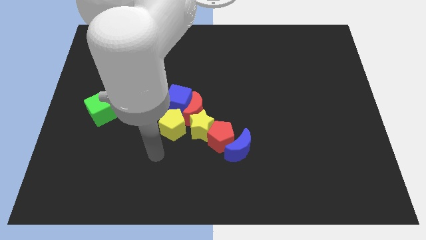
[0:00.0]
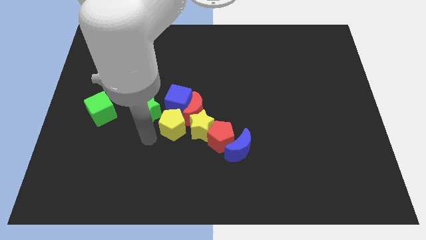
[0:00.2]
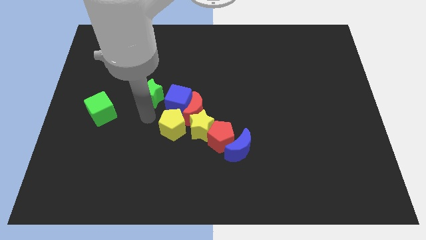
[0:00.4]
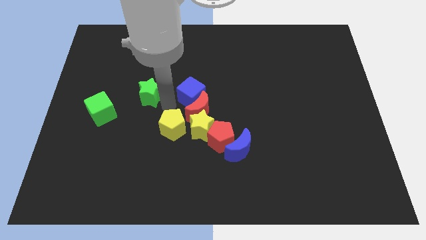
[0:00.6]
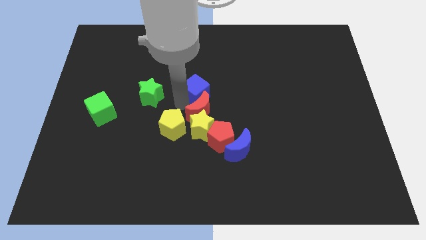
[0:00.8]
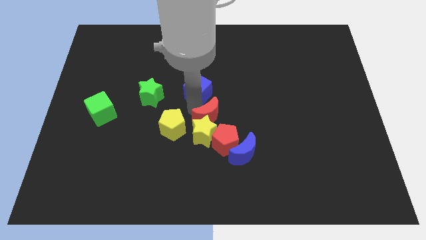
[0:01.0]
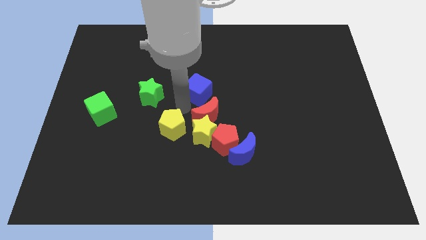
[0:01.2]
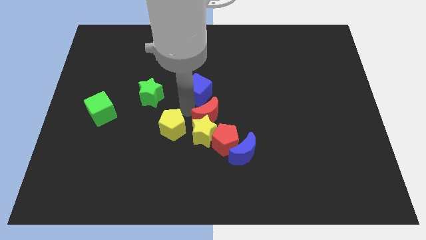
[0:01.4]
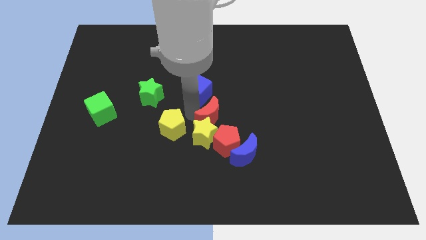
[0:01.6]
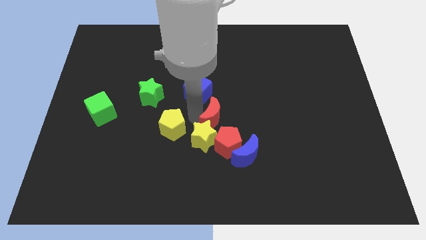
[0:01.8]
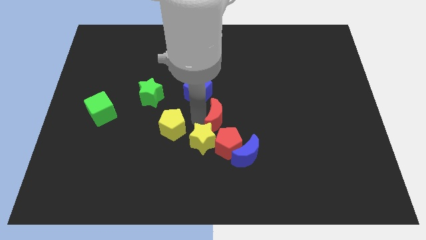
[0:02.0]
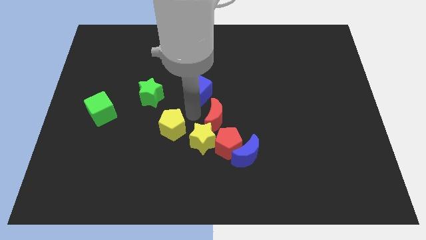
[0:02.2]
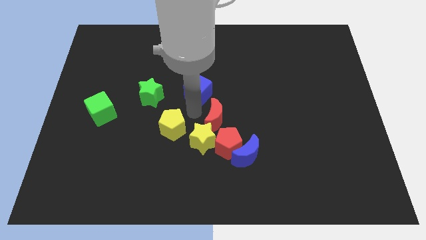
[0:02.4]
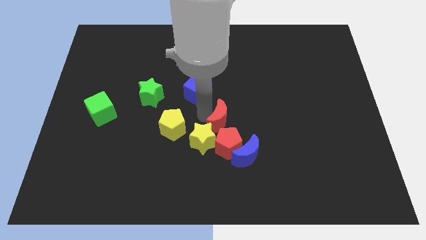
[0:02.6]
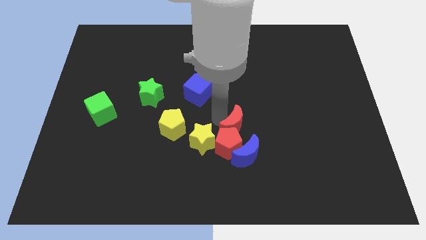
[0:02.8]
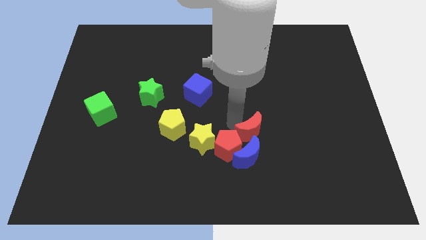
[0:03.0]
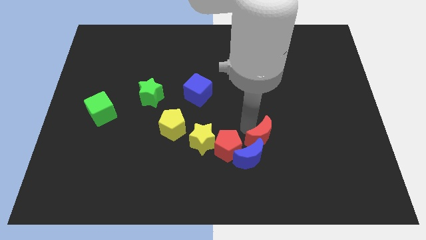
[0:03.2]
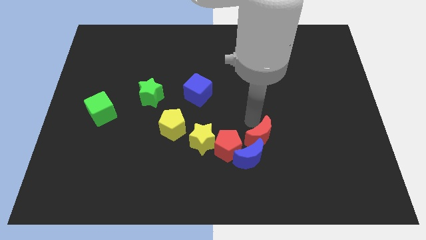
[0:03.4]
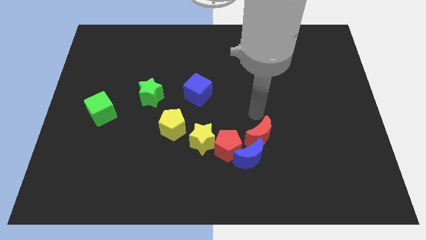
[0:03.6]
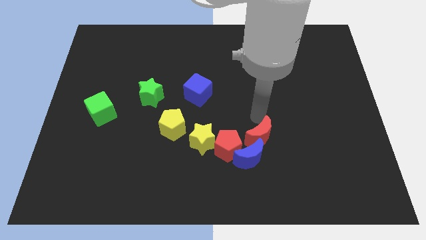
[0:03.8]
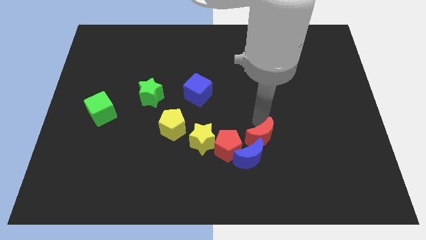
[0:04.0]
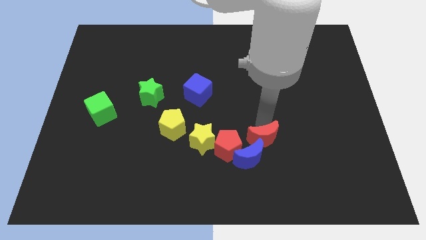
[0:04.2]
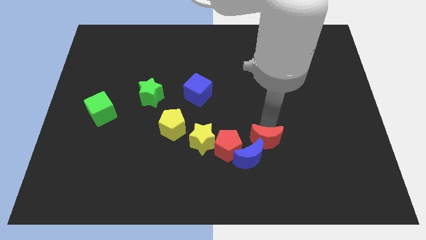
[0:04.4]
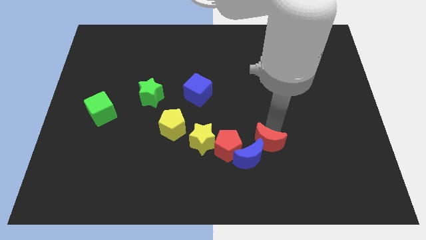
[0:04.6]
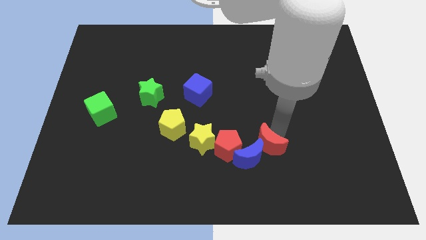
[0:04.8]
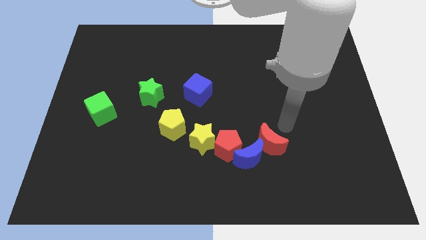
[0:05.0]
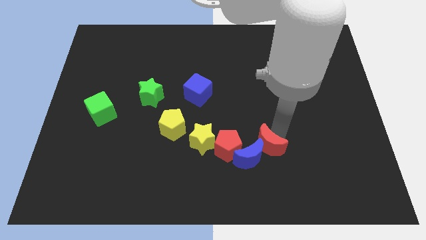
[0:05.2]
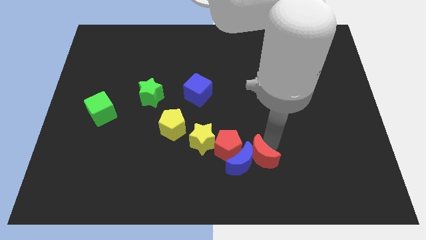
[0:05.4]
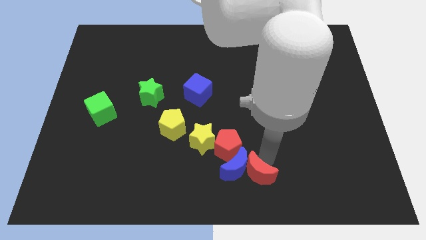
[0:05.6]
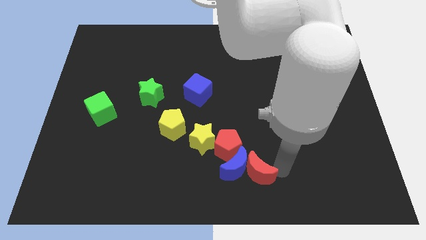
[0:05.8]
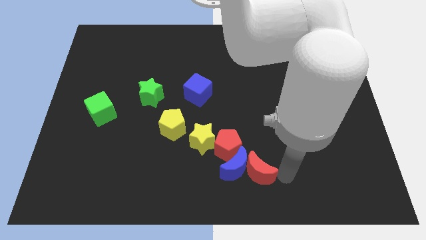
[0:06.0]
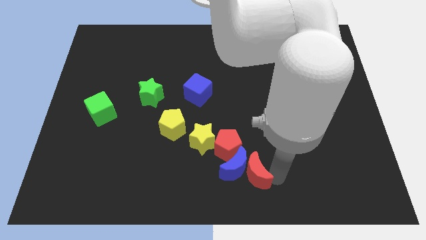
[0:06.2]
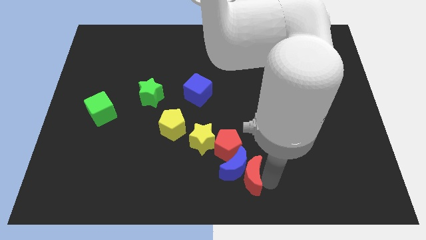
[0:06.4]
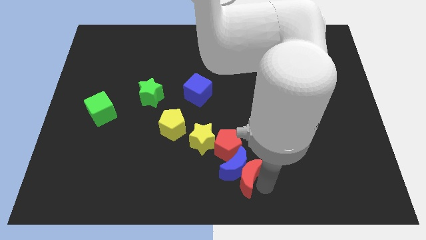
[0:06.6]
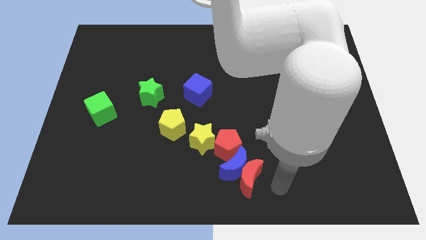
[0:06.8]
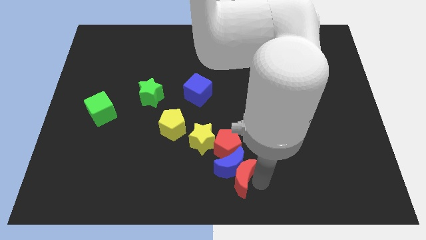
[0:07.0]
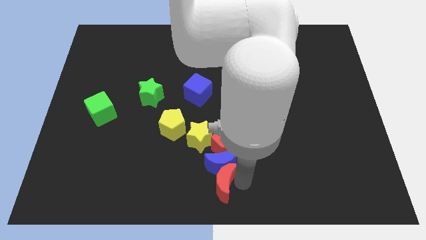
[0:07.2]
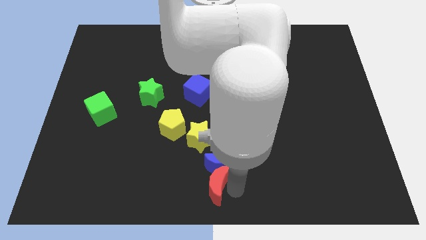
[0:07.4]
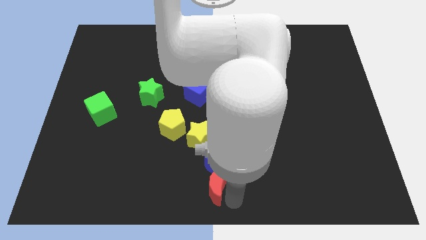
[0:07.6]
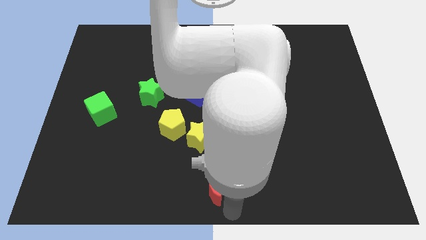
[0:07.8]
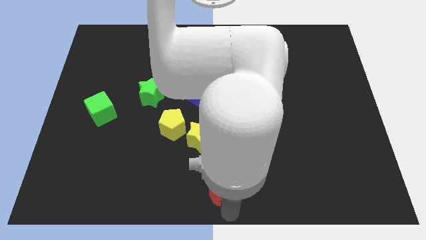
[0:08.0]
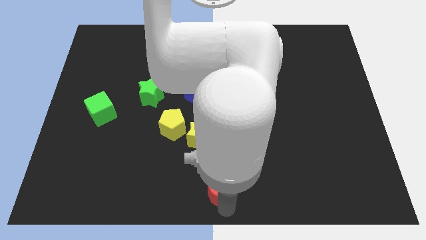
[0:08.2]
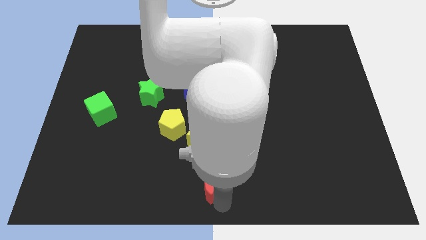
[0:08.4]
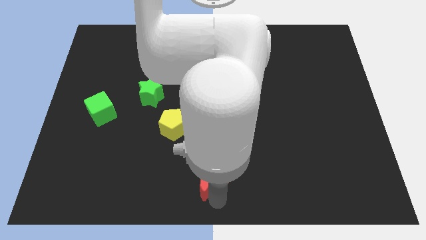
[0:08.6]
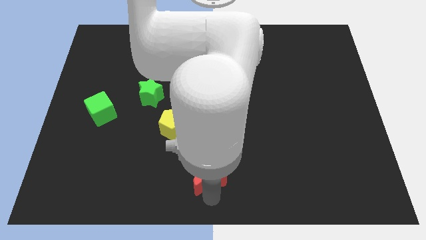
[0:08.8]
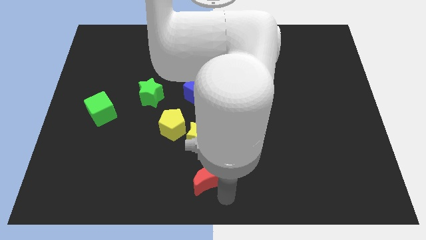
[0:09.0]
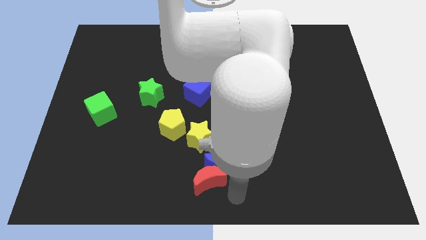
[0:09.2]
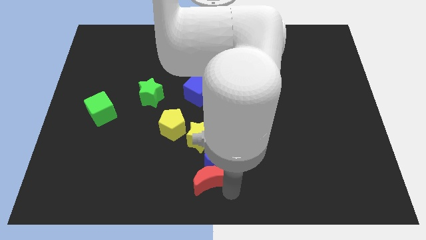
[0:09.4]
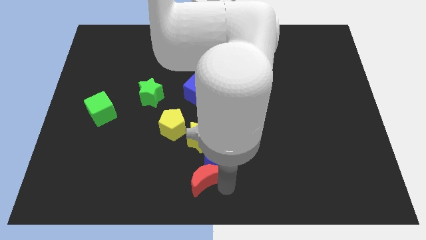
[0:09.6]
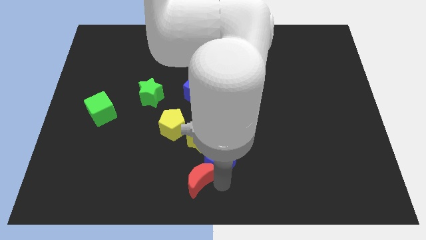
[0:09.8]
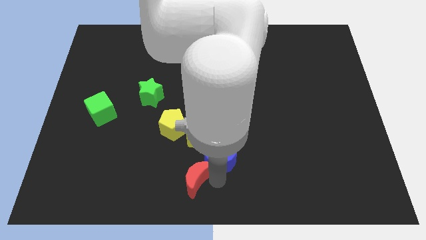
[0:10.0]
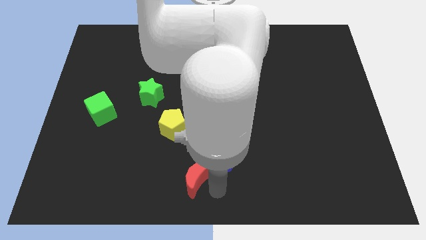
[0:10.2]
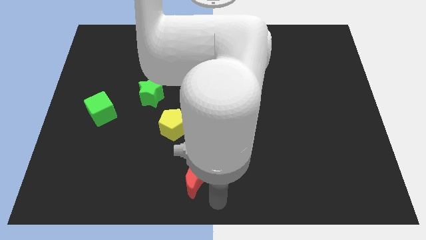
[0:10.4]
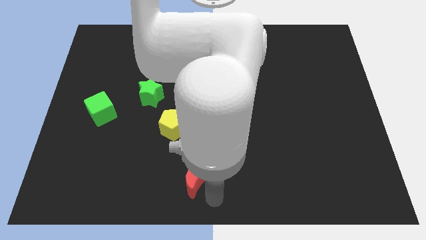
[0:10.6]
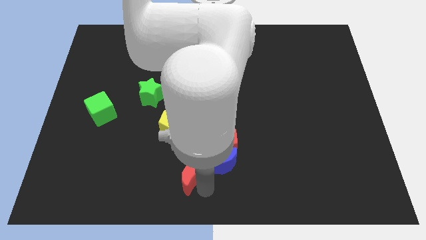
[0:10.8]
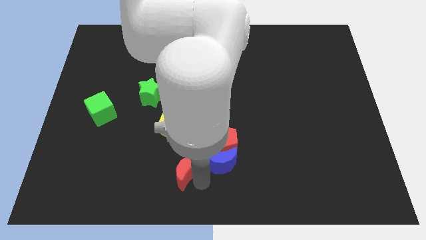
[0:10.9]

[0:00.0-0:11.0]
slide the red moon a bit downwards and then left

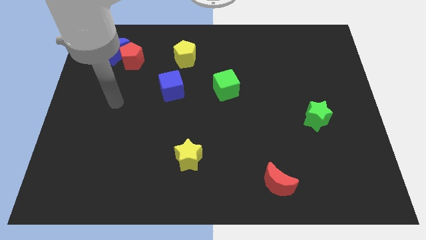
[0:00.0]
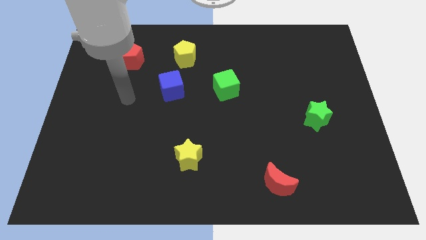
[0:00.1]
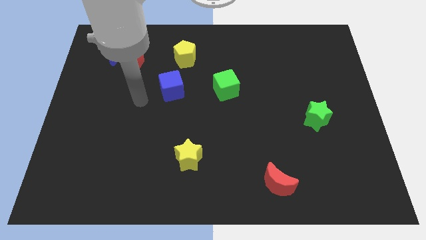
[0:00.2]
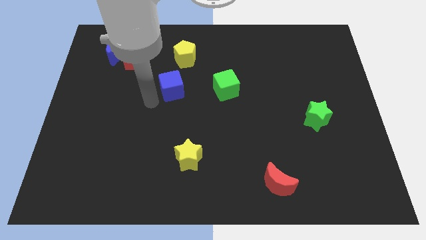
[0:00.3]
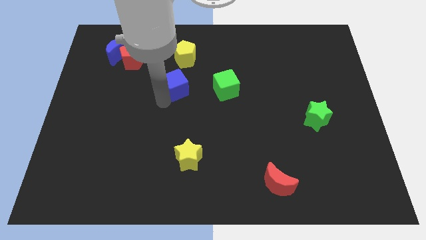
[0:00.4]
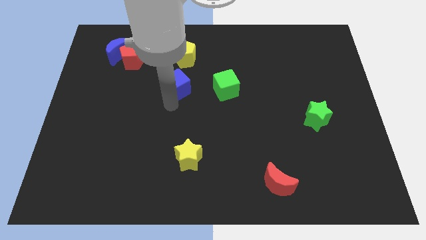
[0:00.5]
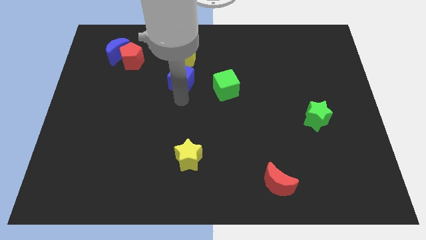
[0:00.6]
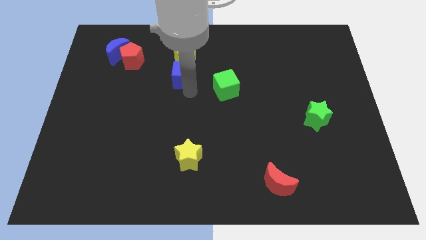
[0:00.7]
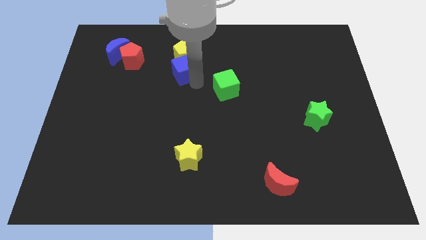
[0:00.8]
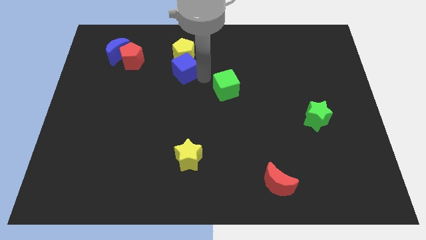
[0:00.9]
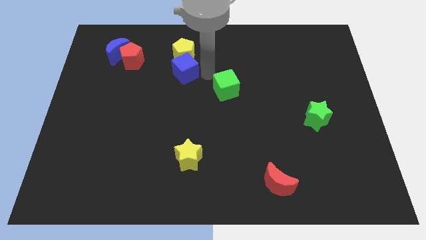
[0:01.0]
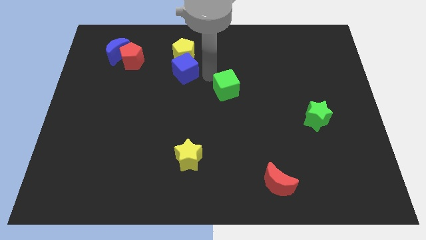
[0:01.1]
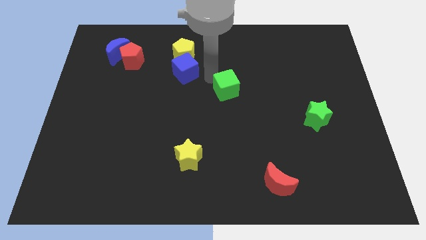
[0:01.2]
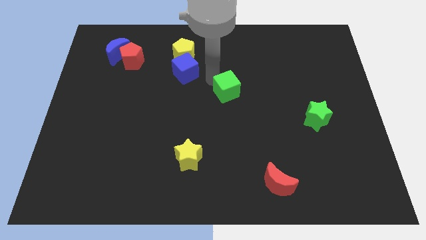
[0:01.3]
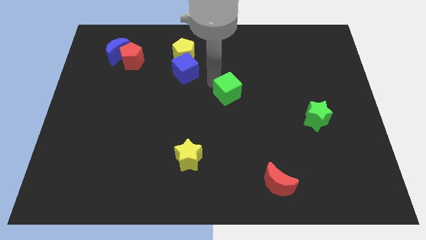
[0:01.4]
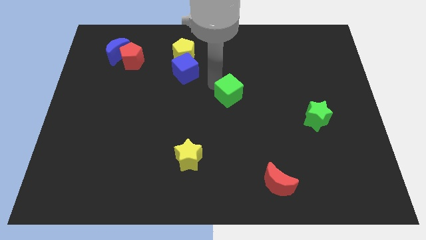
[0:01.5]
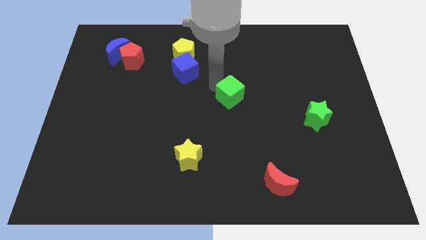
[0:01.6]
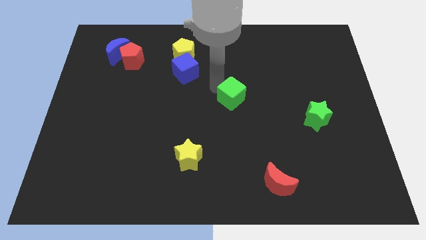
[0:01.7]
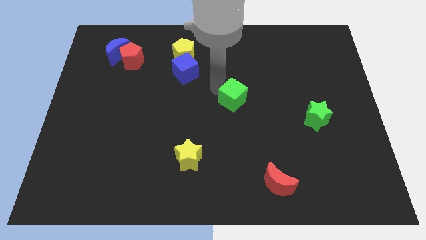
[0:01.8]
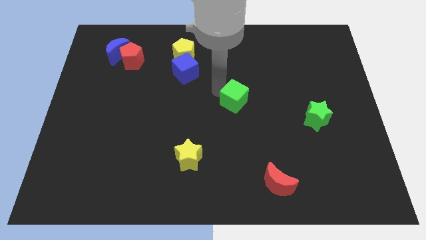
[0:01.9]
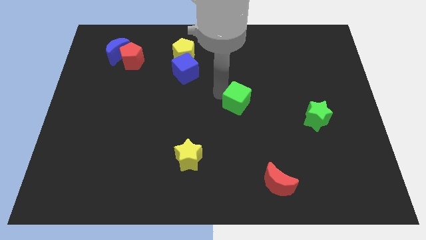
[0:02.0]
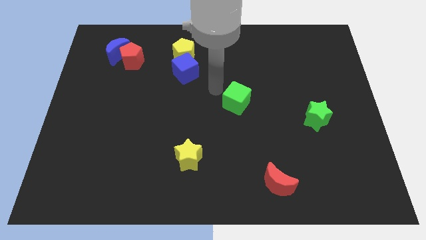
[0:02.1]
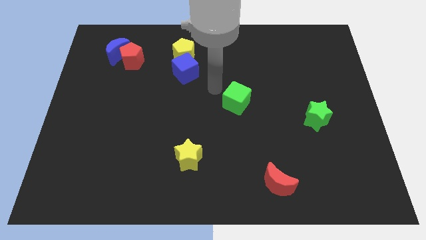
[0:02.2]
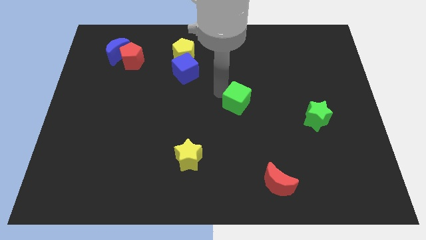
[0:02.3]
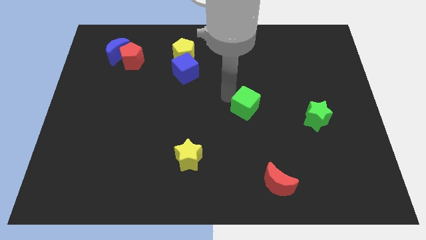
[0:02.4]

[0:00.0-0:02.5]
slide the green cube down and right slightly

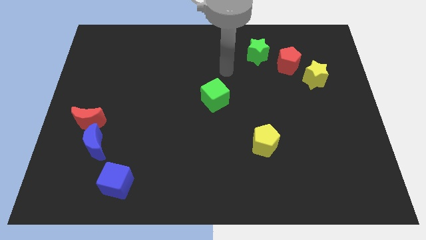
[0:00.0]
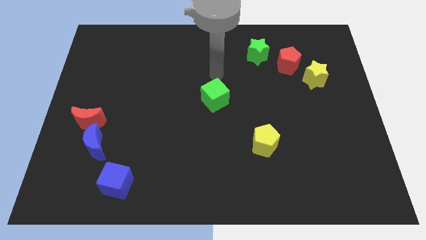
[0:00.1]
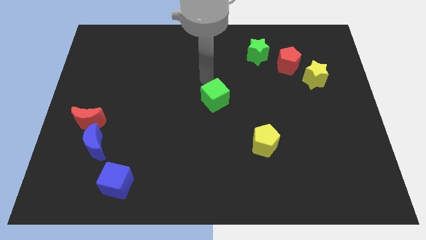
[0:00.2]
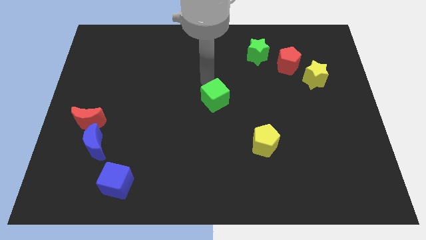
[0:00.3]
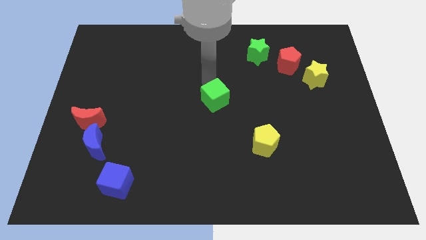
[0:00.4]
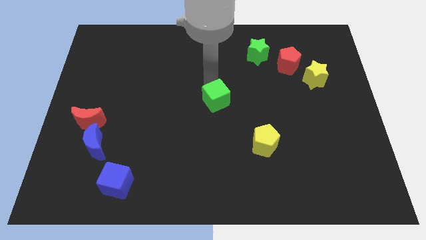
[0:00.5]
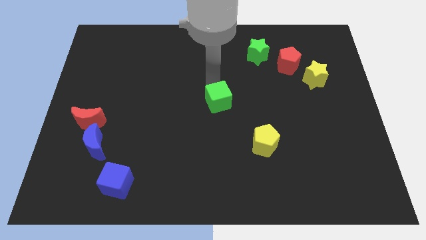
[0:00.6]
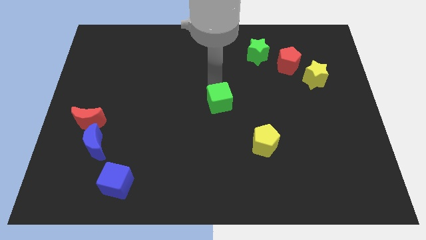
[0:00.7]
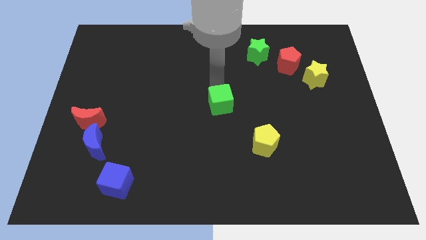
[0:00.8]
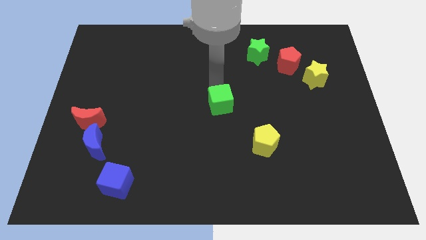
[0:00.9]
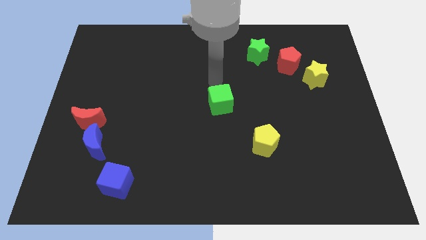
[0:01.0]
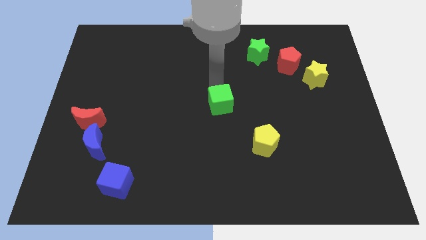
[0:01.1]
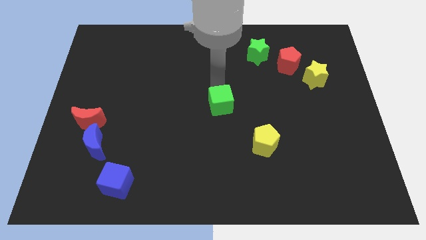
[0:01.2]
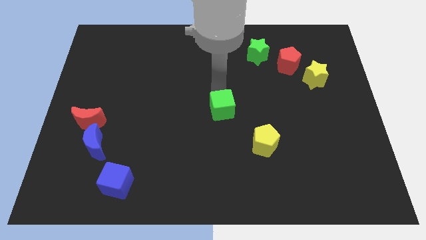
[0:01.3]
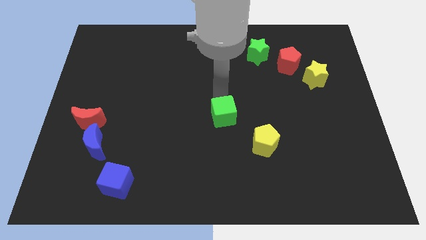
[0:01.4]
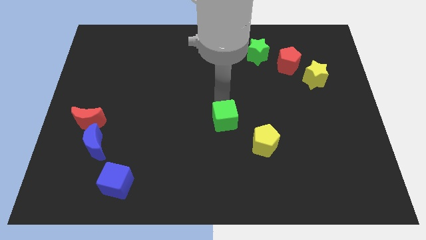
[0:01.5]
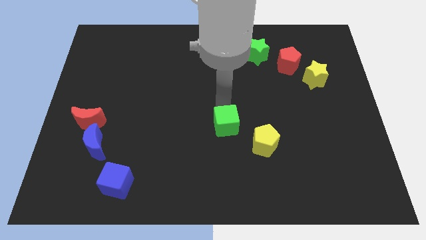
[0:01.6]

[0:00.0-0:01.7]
slide the green cube downwards somewhat
